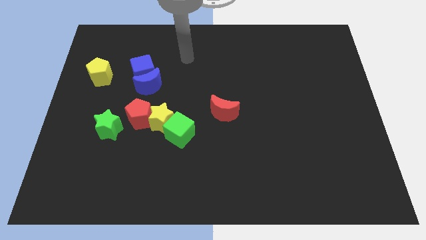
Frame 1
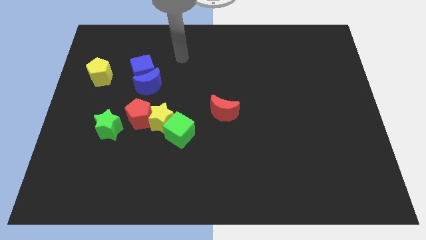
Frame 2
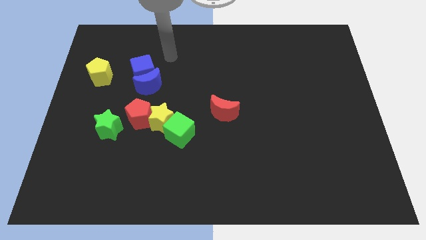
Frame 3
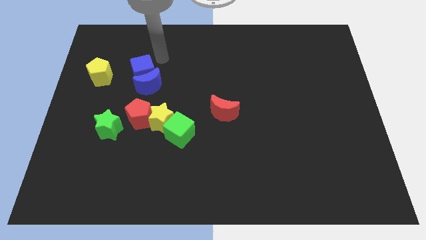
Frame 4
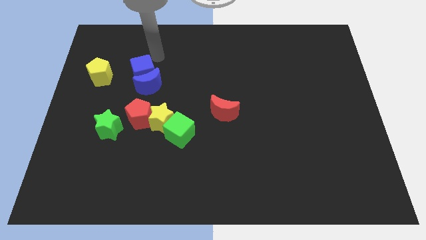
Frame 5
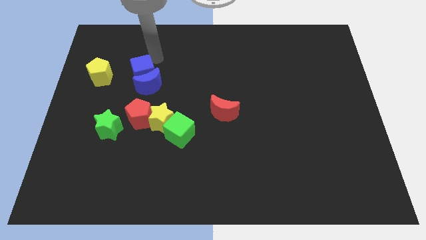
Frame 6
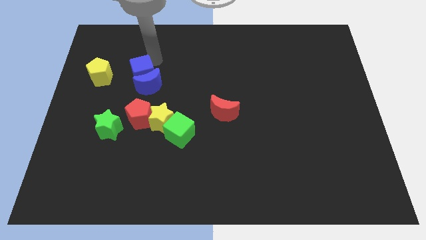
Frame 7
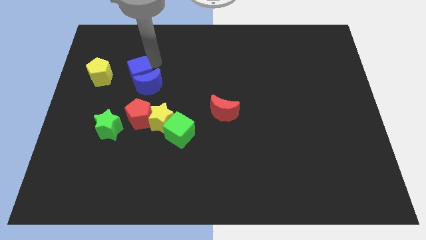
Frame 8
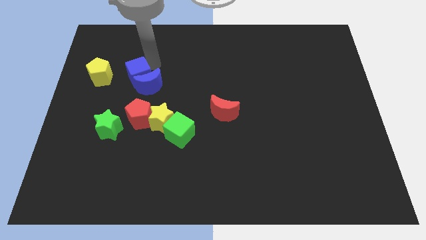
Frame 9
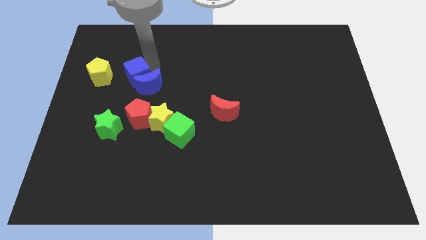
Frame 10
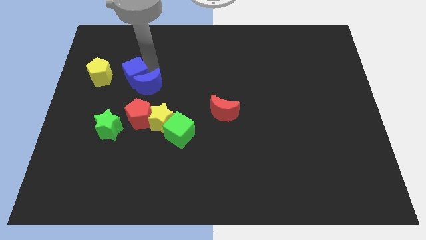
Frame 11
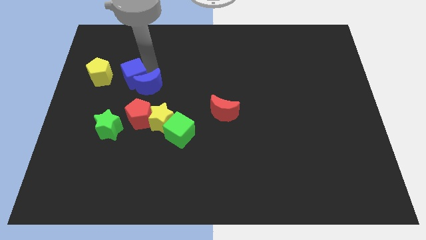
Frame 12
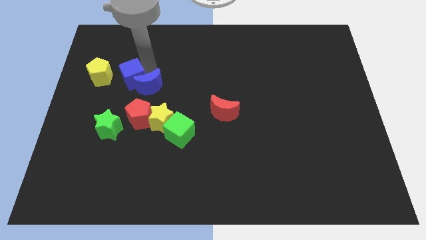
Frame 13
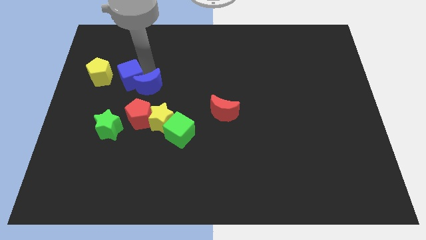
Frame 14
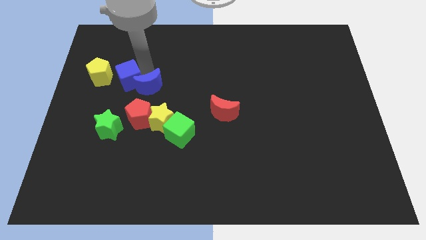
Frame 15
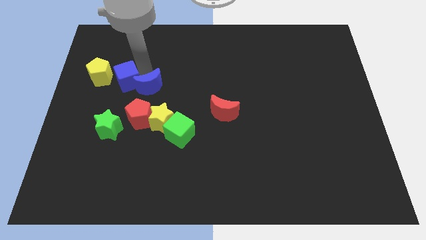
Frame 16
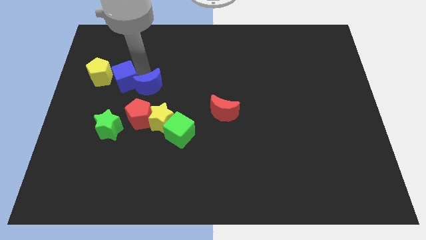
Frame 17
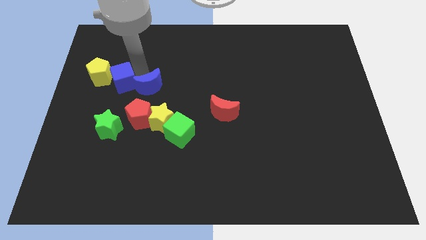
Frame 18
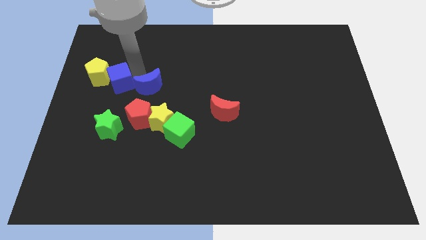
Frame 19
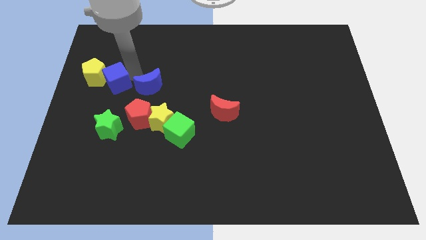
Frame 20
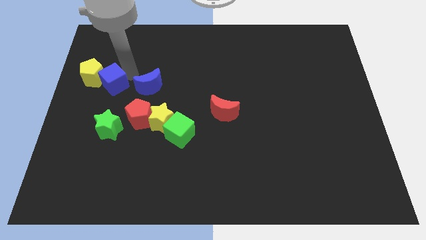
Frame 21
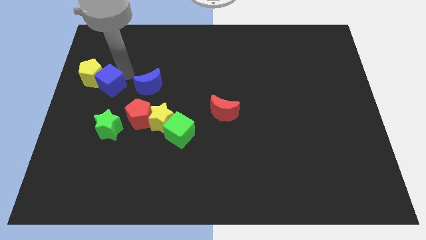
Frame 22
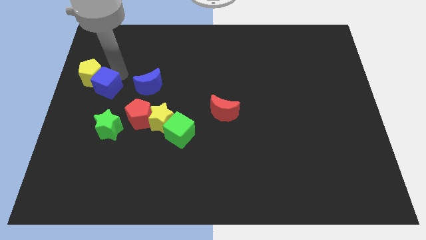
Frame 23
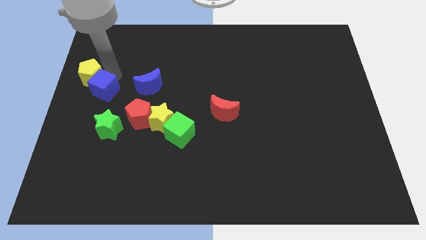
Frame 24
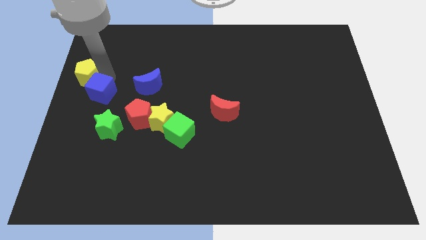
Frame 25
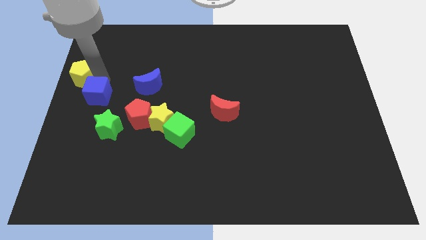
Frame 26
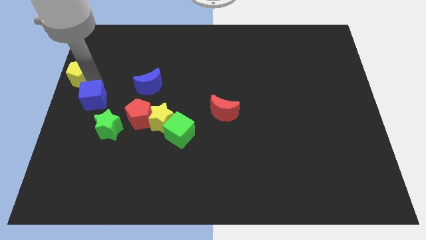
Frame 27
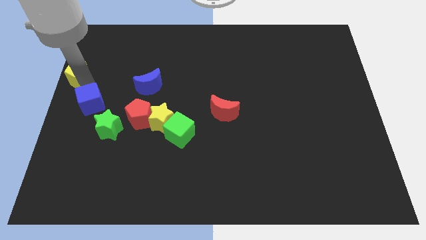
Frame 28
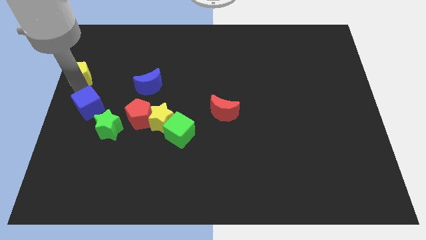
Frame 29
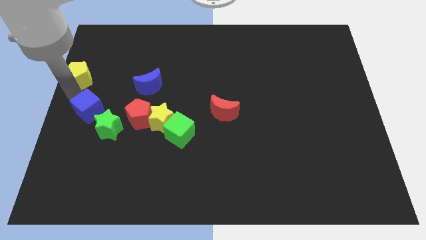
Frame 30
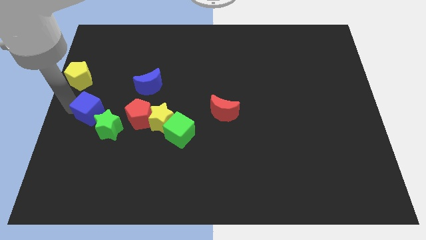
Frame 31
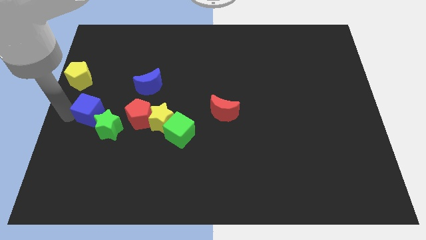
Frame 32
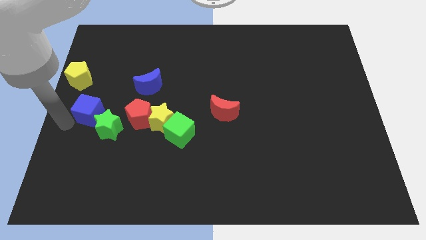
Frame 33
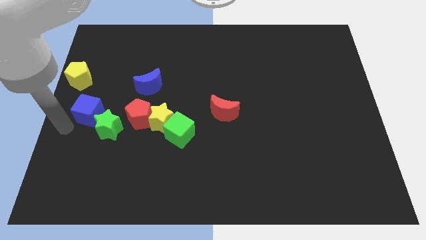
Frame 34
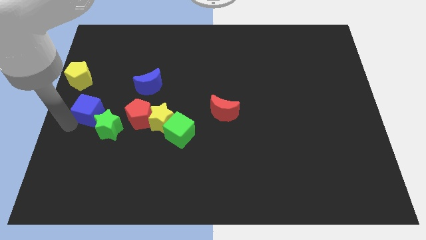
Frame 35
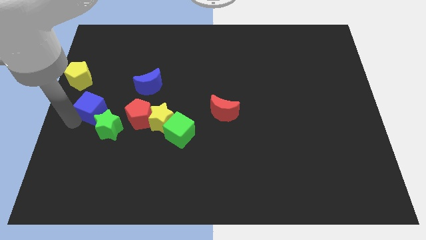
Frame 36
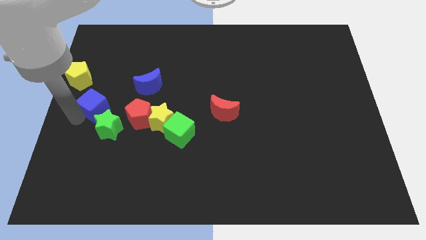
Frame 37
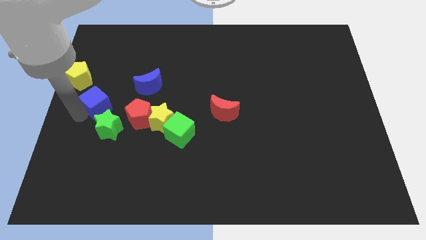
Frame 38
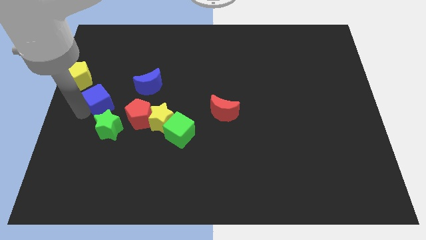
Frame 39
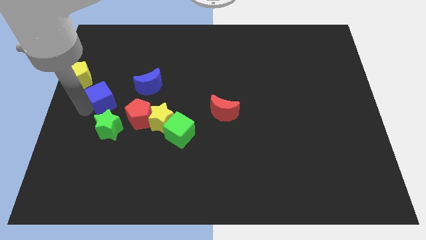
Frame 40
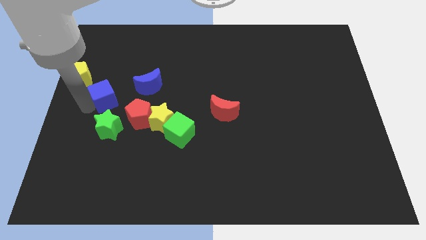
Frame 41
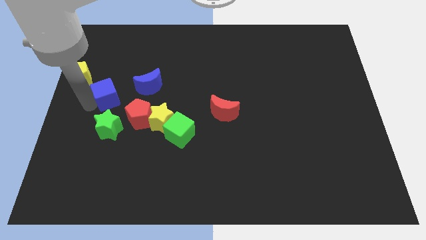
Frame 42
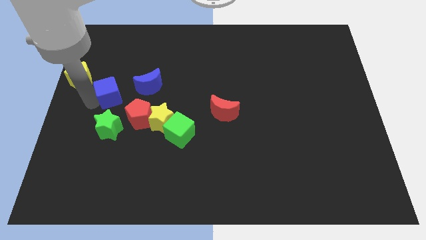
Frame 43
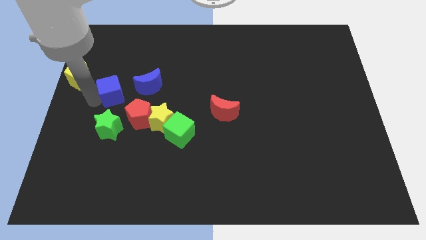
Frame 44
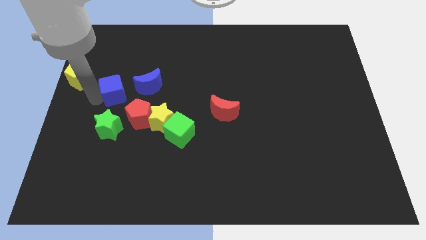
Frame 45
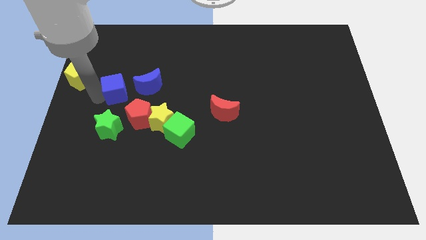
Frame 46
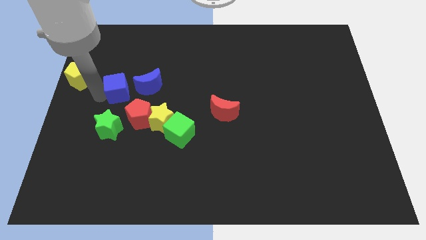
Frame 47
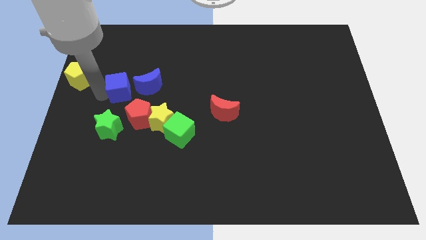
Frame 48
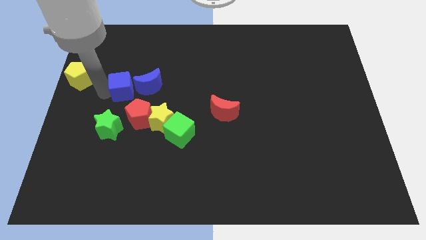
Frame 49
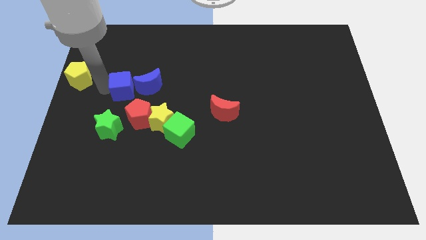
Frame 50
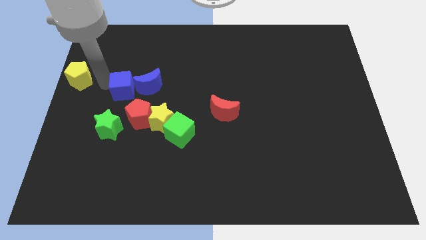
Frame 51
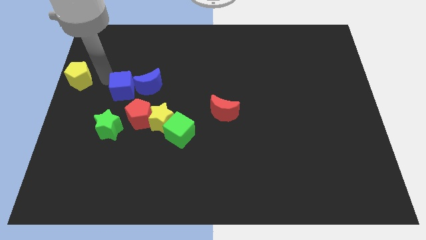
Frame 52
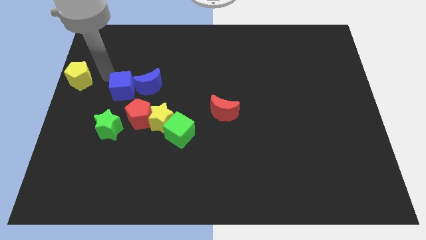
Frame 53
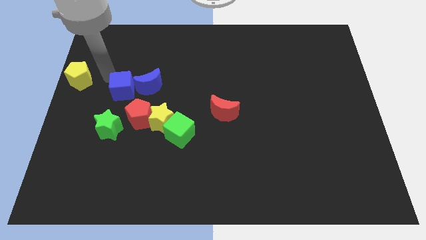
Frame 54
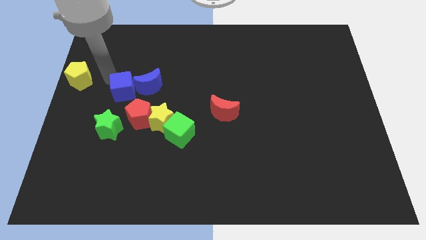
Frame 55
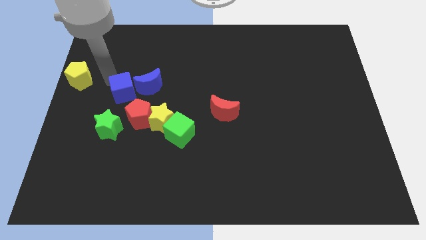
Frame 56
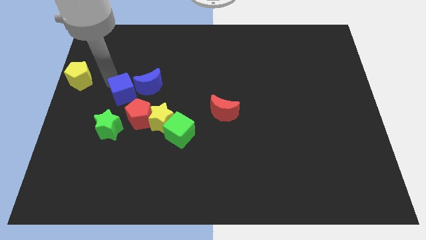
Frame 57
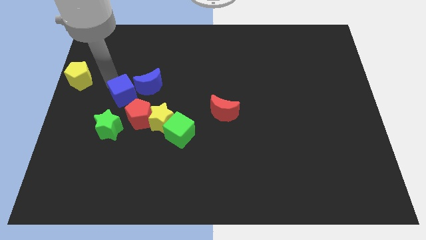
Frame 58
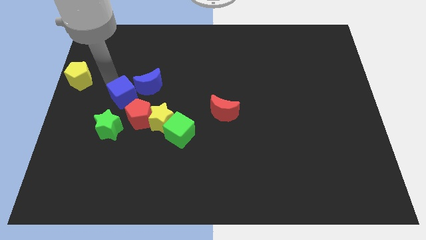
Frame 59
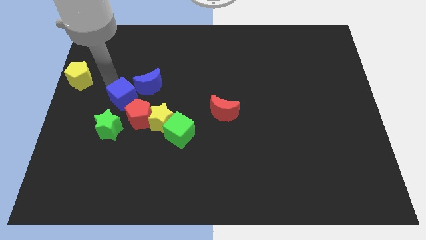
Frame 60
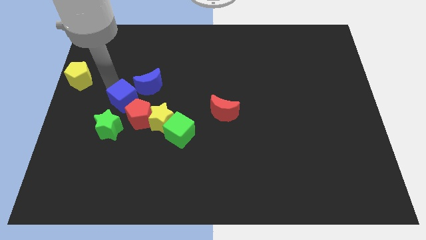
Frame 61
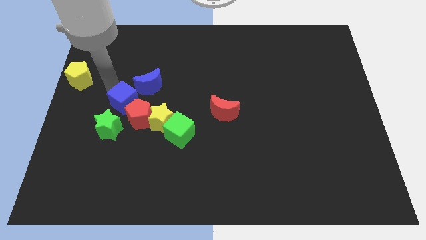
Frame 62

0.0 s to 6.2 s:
move the blue cube close to the red pentagon

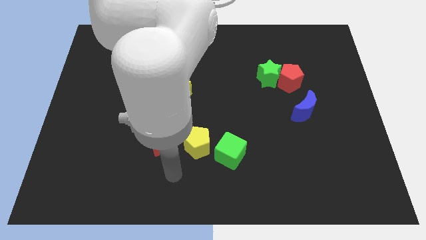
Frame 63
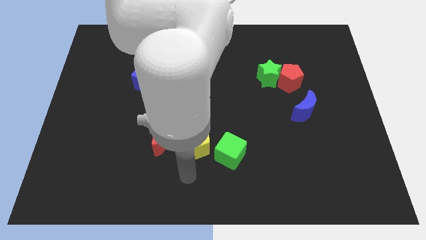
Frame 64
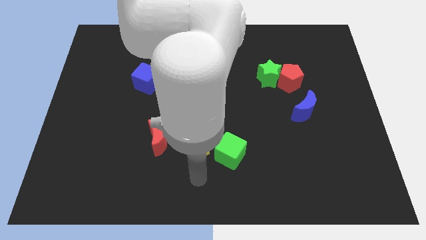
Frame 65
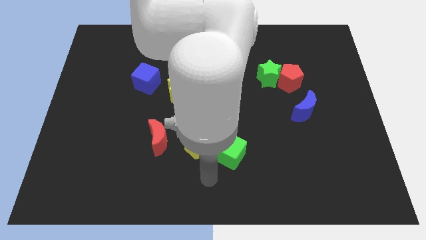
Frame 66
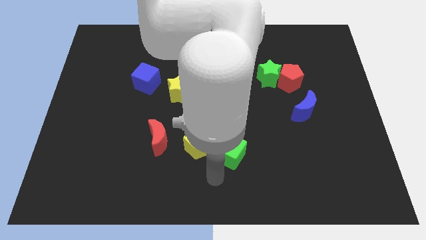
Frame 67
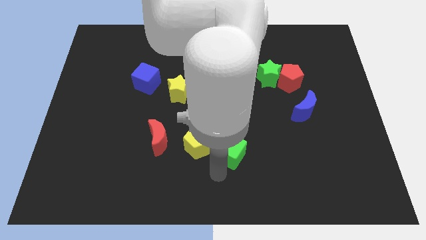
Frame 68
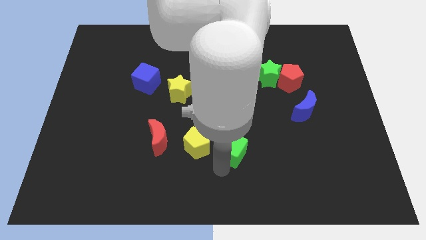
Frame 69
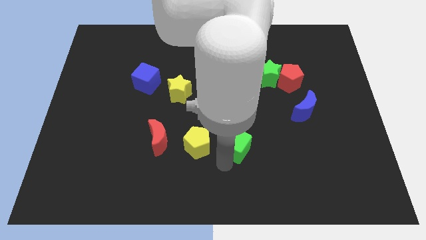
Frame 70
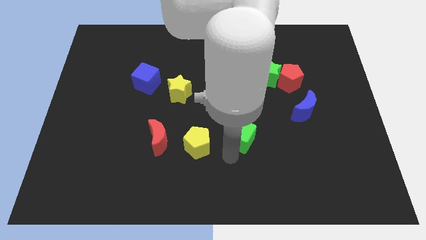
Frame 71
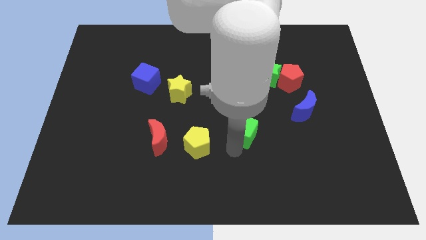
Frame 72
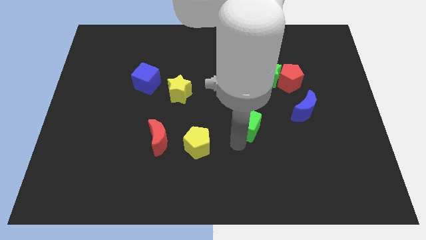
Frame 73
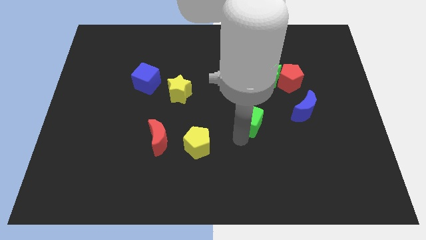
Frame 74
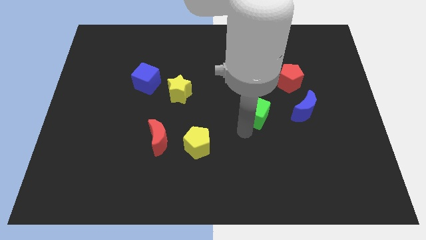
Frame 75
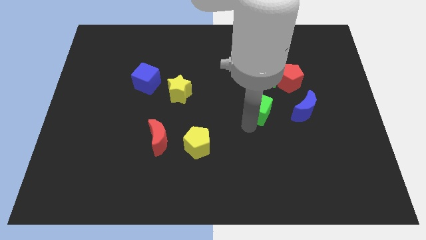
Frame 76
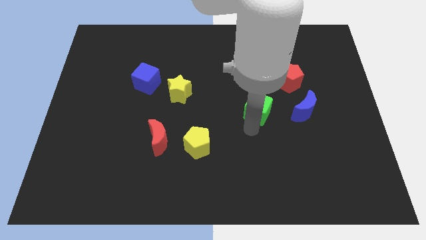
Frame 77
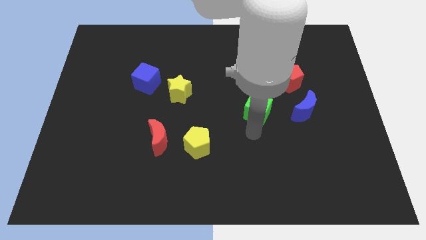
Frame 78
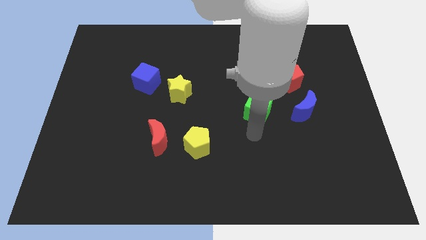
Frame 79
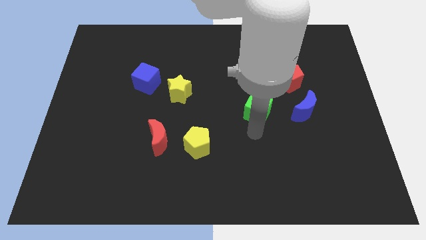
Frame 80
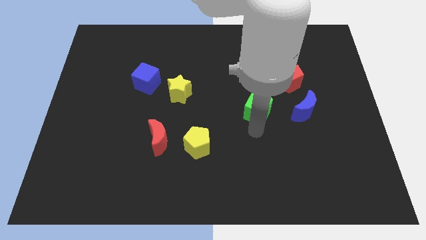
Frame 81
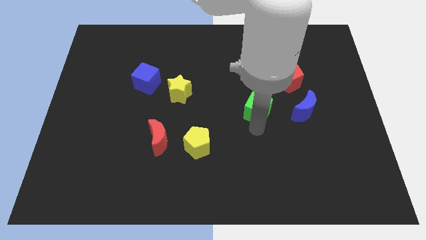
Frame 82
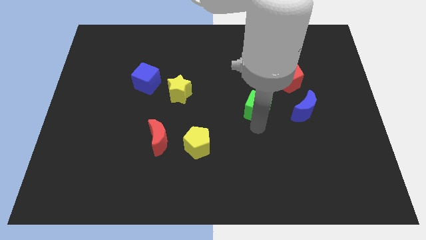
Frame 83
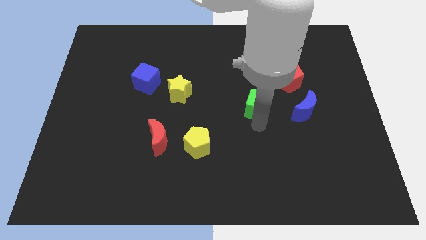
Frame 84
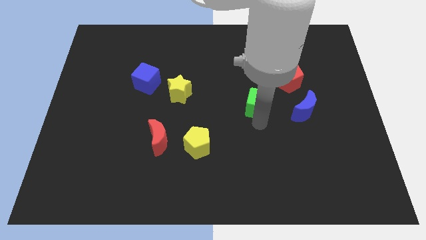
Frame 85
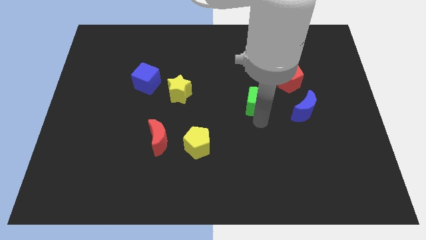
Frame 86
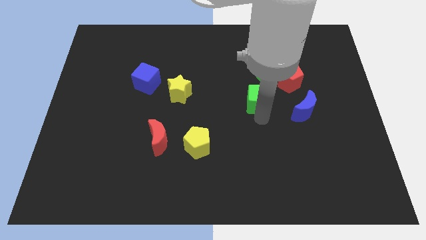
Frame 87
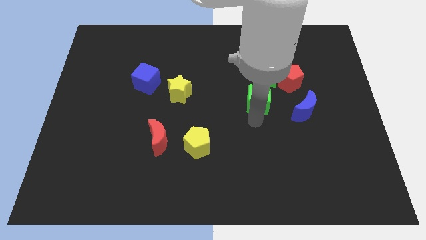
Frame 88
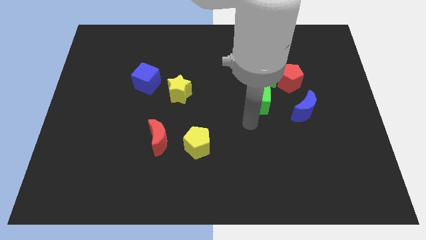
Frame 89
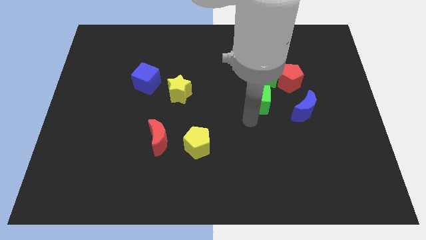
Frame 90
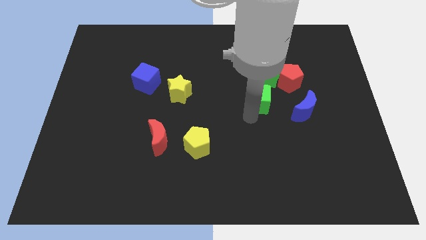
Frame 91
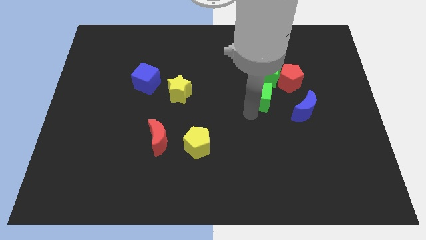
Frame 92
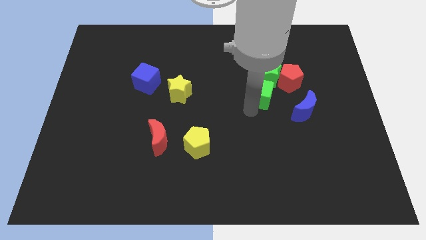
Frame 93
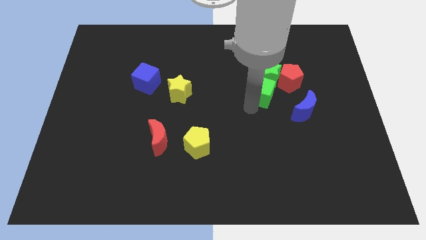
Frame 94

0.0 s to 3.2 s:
move the green cube to the green star
